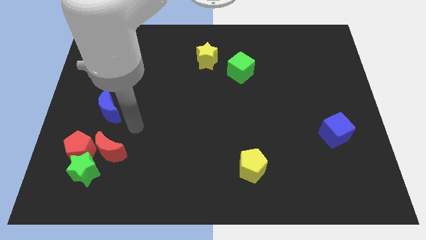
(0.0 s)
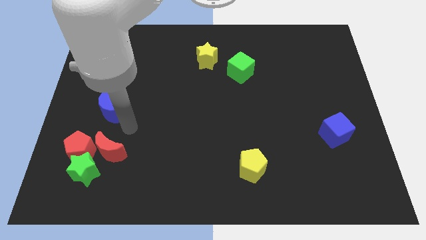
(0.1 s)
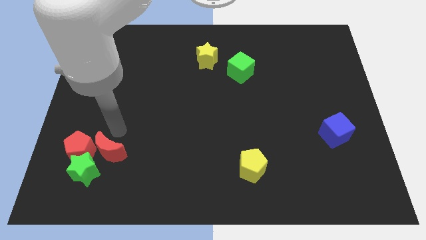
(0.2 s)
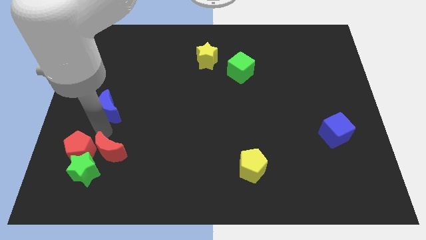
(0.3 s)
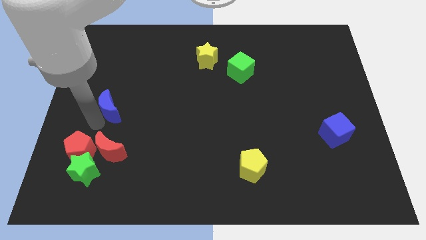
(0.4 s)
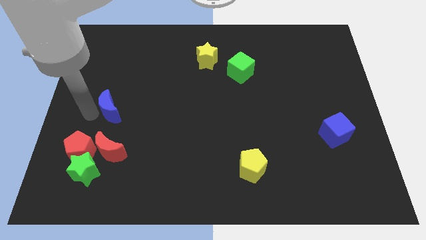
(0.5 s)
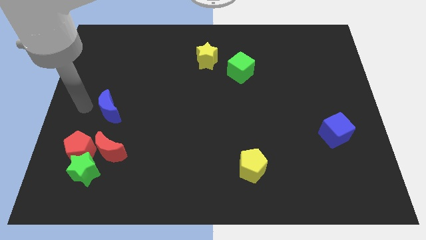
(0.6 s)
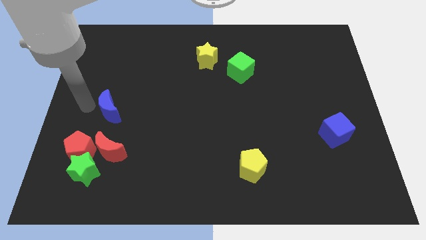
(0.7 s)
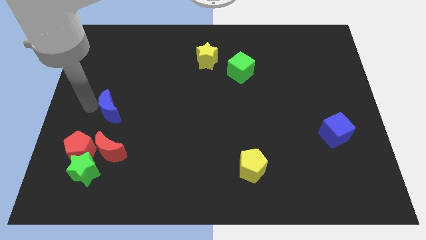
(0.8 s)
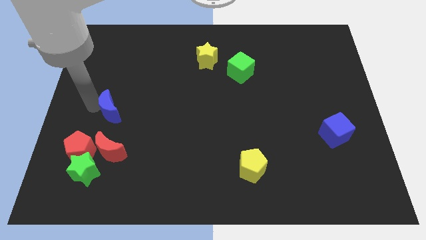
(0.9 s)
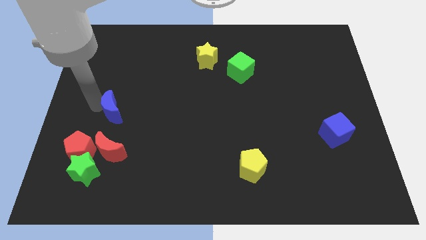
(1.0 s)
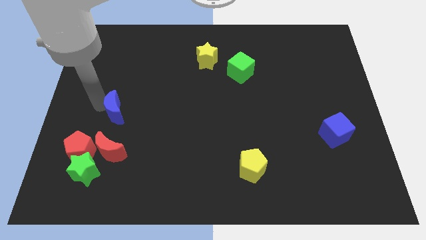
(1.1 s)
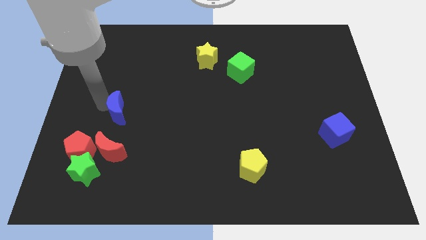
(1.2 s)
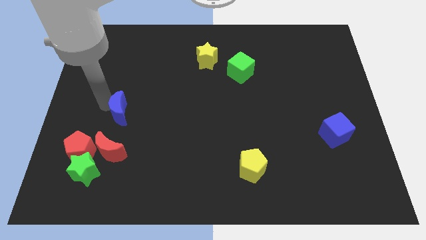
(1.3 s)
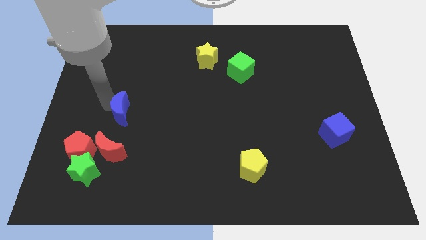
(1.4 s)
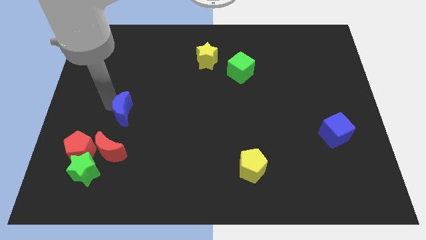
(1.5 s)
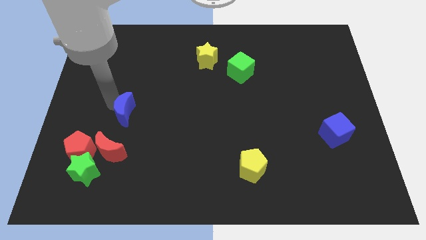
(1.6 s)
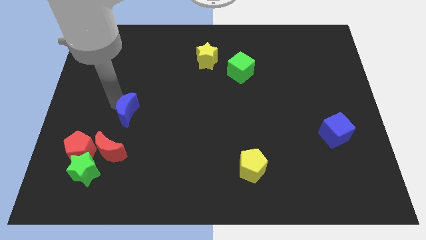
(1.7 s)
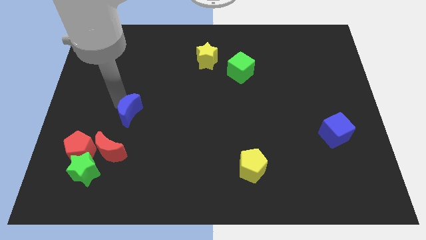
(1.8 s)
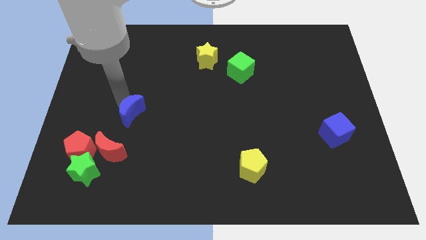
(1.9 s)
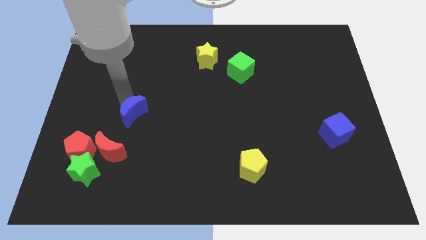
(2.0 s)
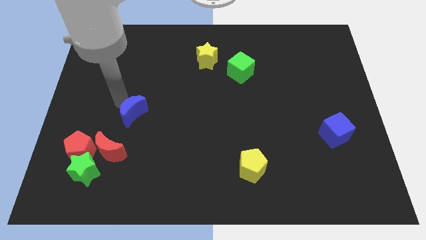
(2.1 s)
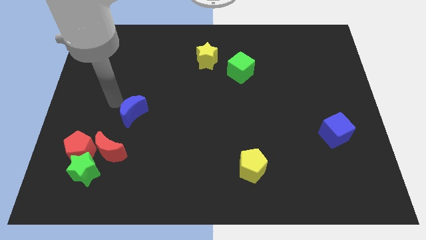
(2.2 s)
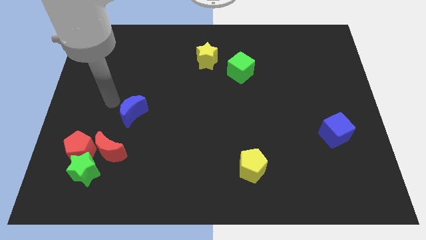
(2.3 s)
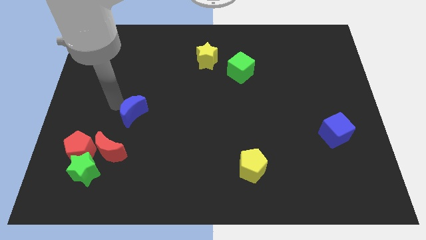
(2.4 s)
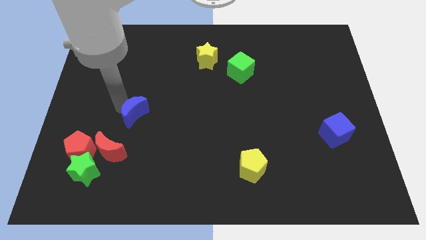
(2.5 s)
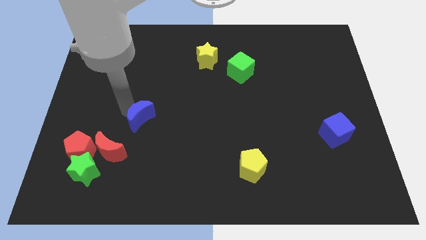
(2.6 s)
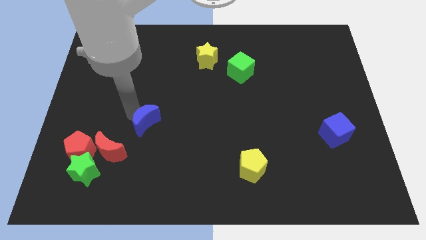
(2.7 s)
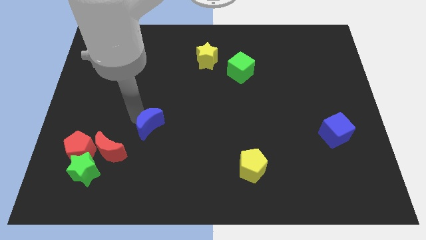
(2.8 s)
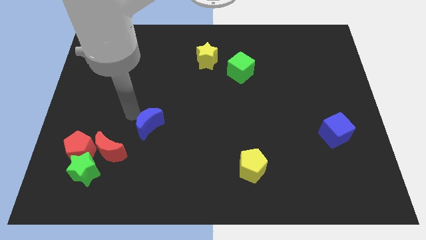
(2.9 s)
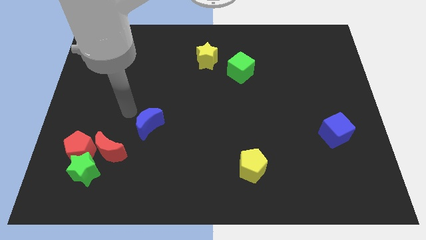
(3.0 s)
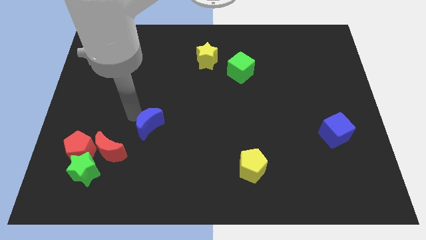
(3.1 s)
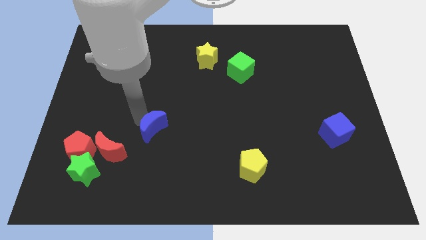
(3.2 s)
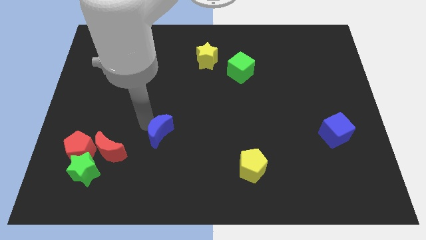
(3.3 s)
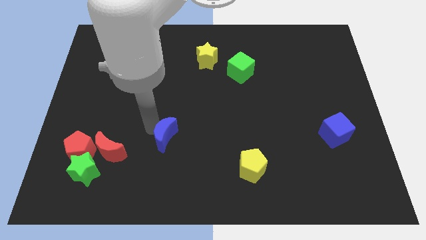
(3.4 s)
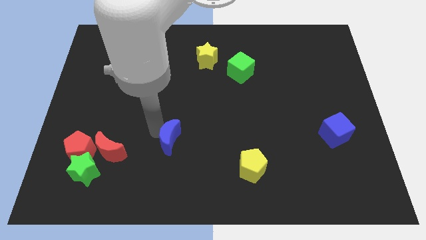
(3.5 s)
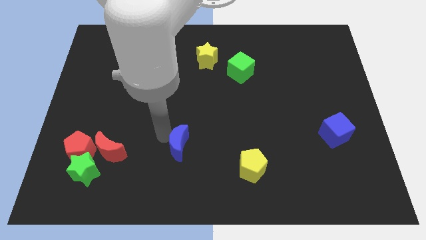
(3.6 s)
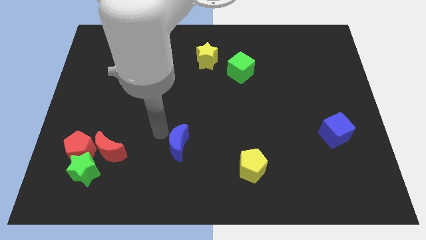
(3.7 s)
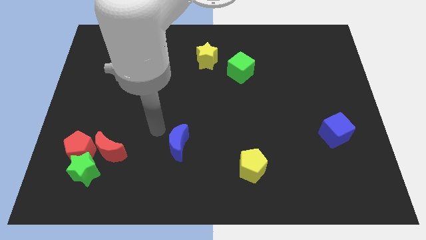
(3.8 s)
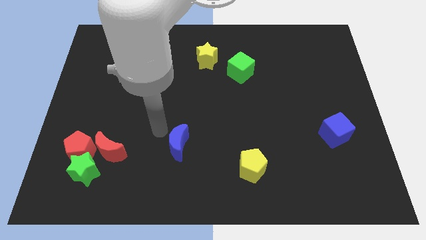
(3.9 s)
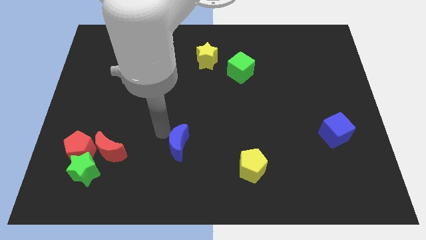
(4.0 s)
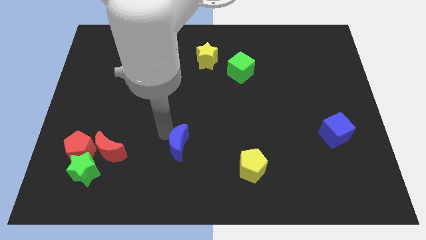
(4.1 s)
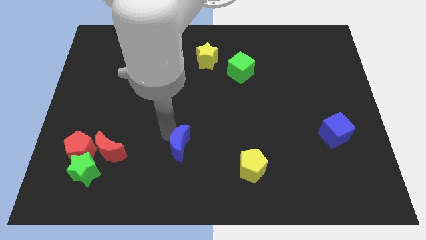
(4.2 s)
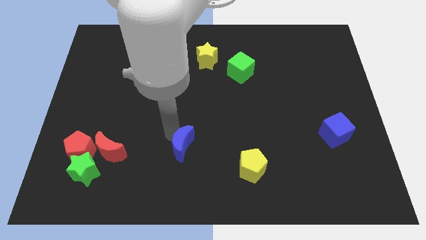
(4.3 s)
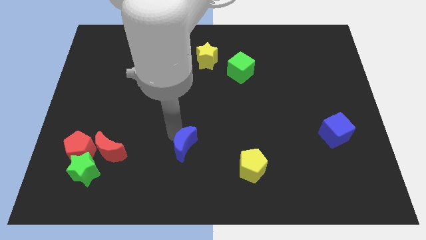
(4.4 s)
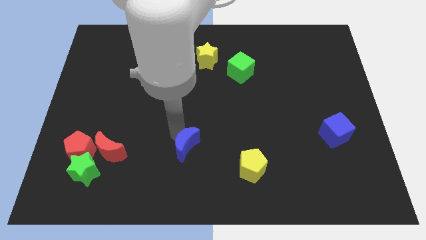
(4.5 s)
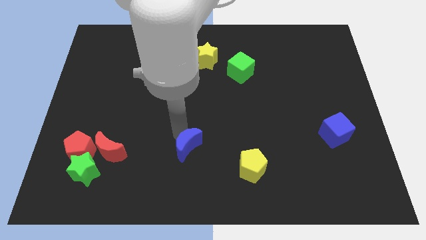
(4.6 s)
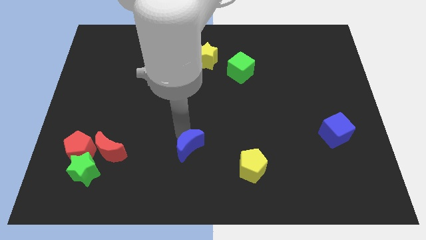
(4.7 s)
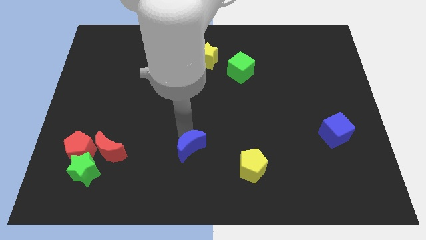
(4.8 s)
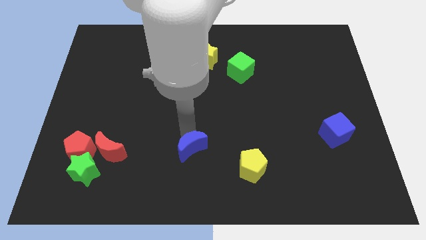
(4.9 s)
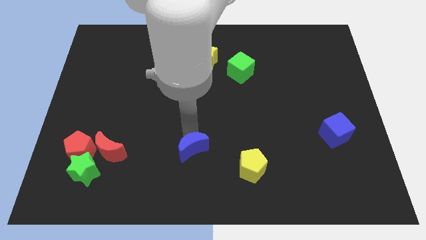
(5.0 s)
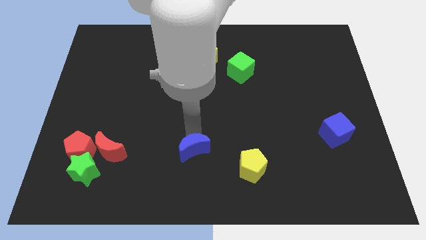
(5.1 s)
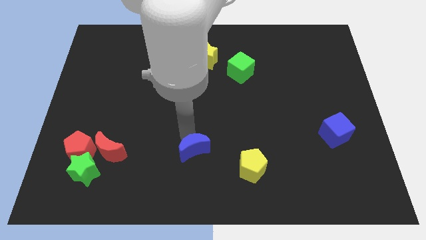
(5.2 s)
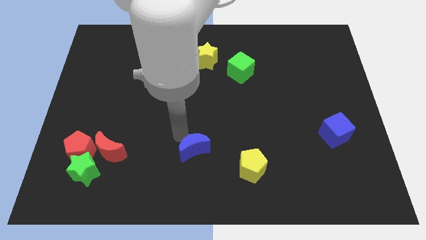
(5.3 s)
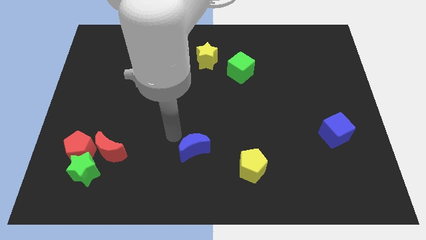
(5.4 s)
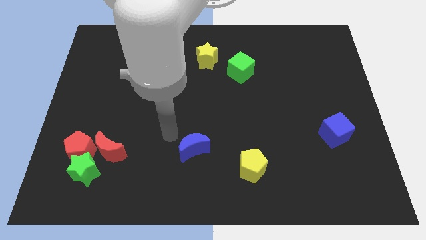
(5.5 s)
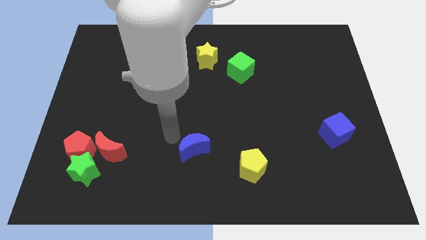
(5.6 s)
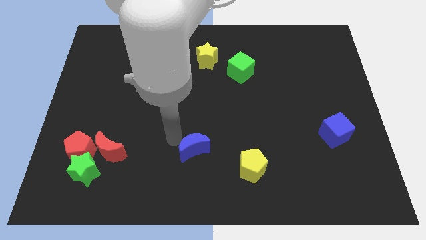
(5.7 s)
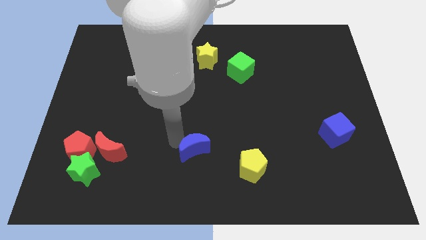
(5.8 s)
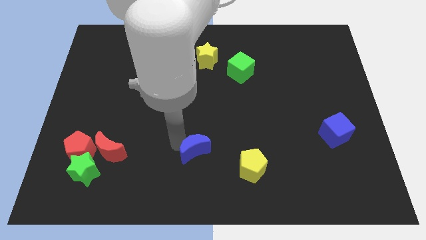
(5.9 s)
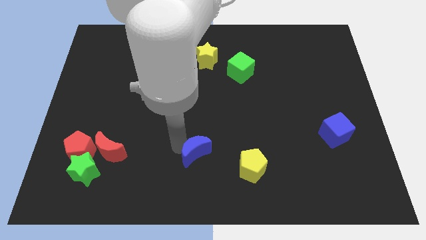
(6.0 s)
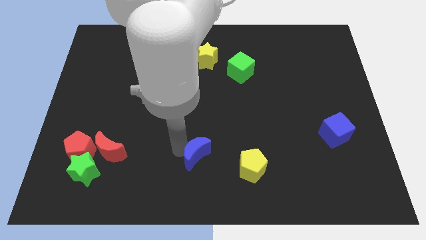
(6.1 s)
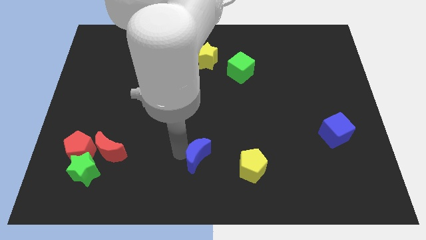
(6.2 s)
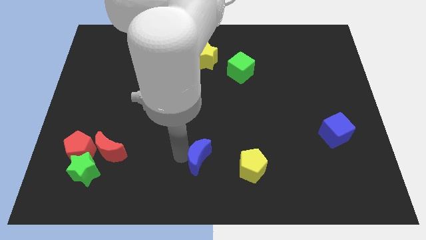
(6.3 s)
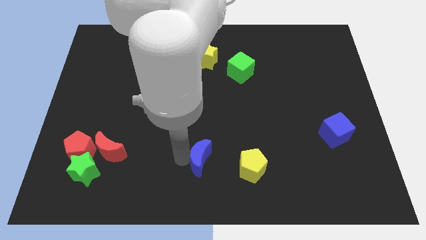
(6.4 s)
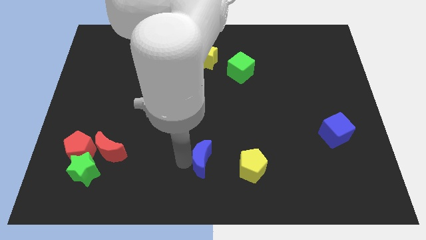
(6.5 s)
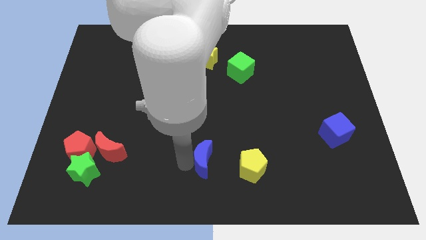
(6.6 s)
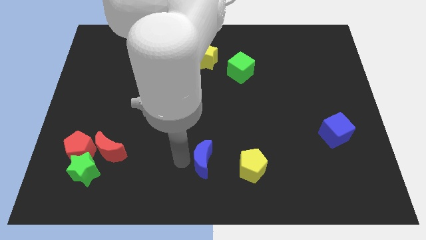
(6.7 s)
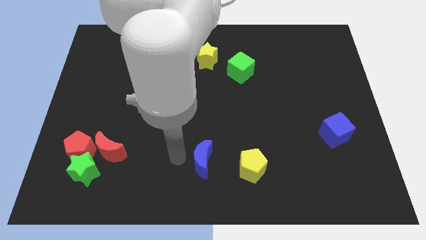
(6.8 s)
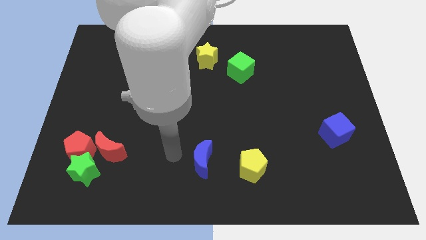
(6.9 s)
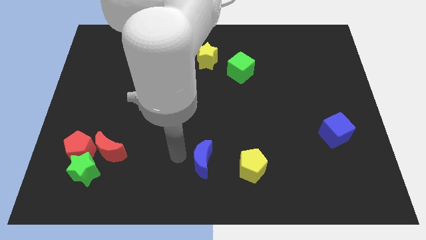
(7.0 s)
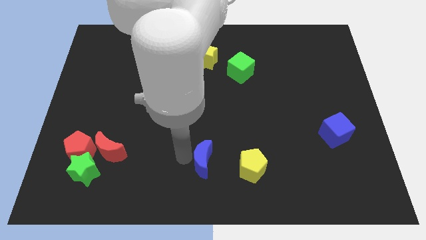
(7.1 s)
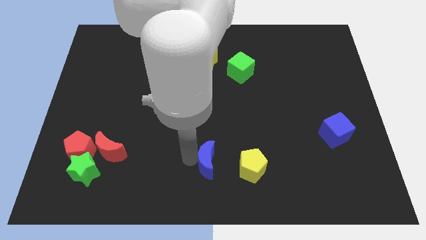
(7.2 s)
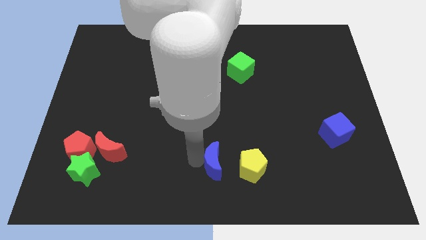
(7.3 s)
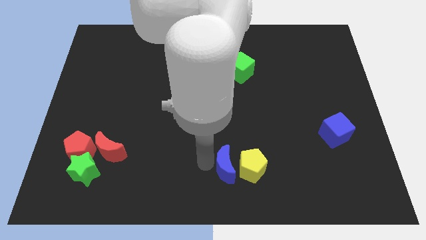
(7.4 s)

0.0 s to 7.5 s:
put the blue moon to the yellow pentagon
